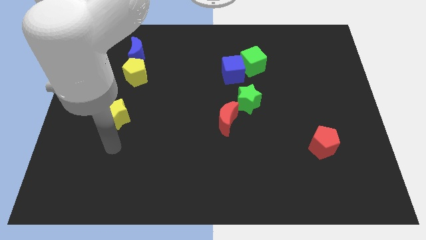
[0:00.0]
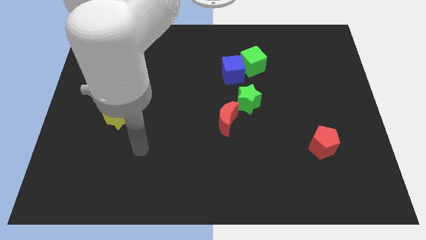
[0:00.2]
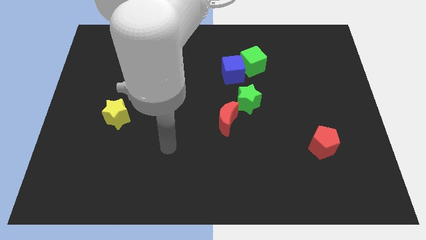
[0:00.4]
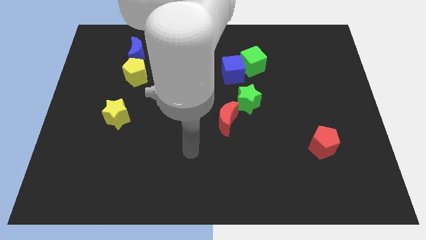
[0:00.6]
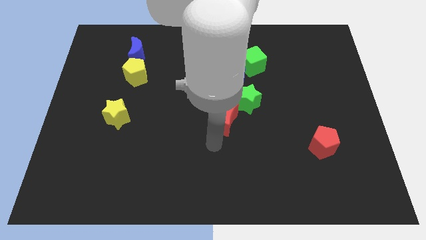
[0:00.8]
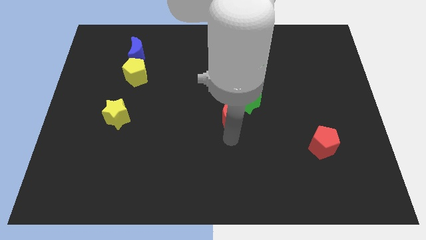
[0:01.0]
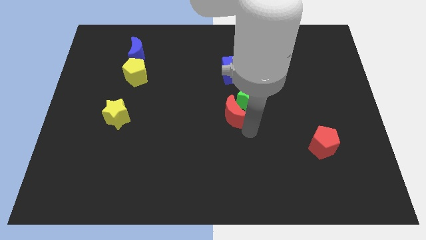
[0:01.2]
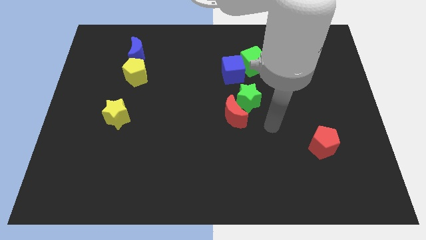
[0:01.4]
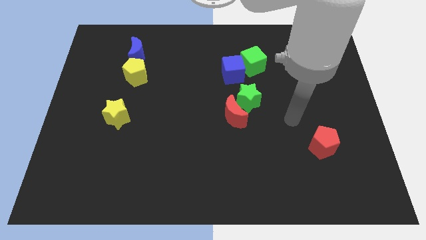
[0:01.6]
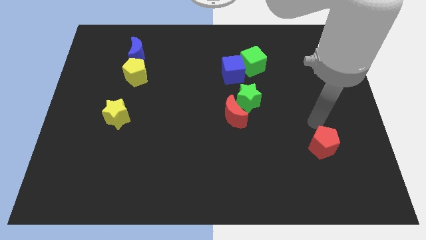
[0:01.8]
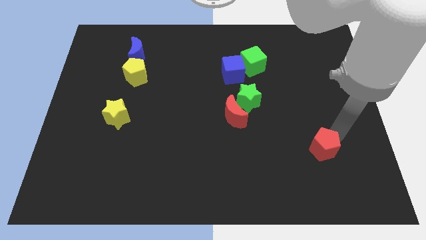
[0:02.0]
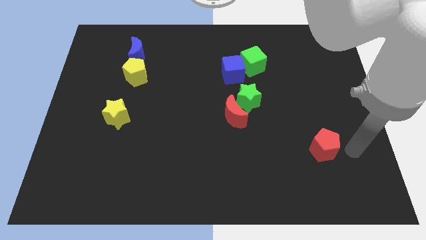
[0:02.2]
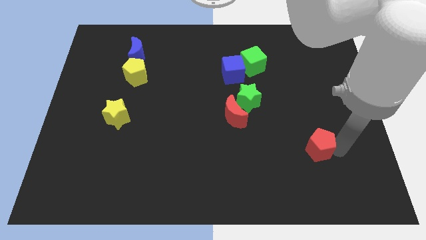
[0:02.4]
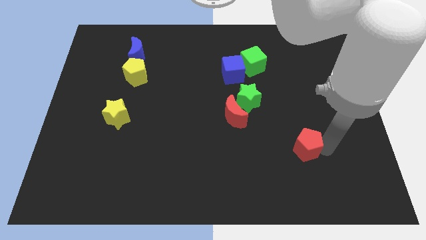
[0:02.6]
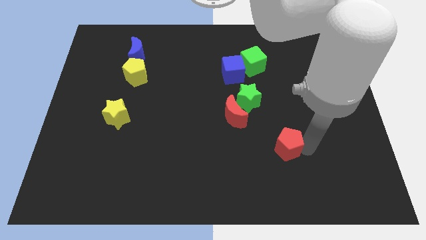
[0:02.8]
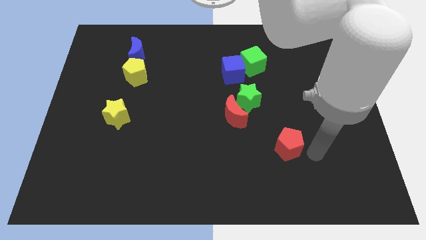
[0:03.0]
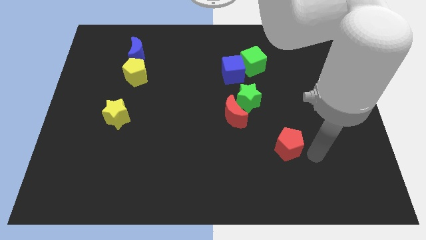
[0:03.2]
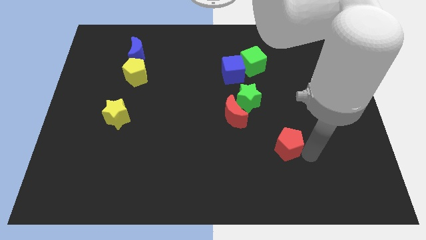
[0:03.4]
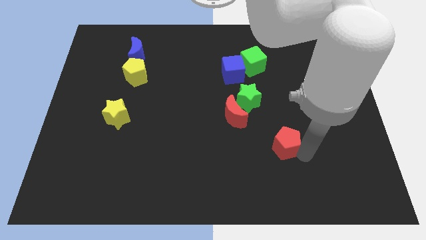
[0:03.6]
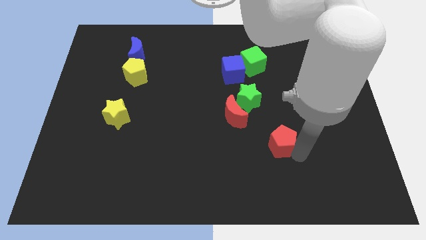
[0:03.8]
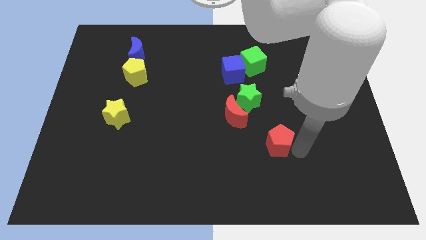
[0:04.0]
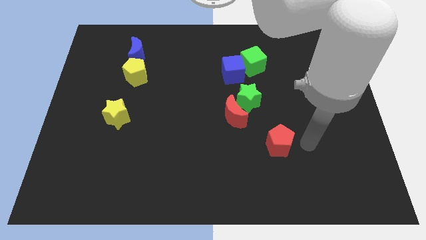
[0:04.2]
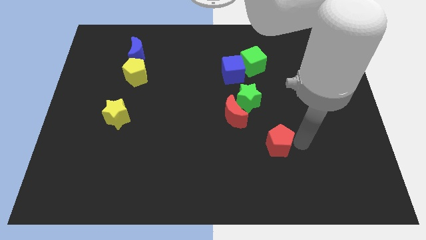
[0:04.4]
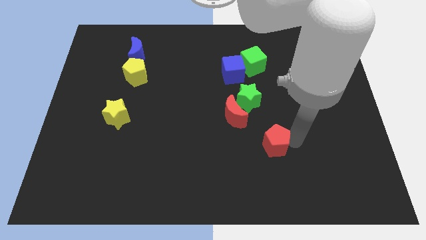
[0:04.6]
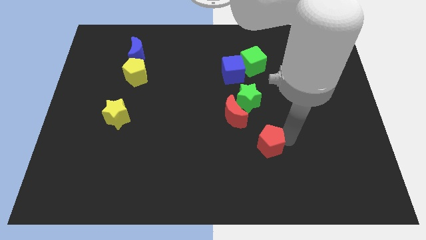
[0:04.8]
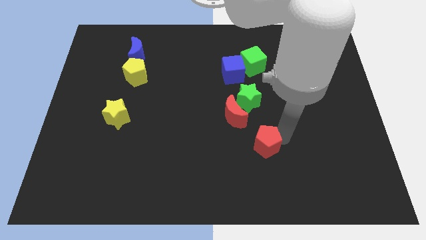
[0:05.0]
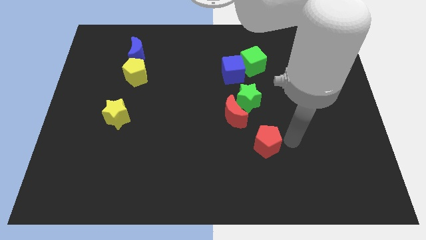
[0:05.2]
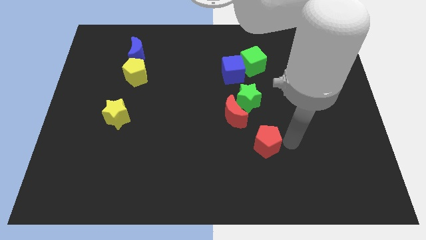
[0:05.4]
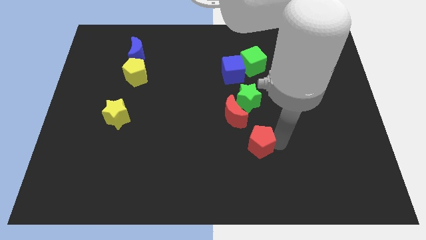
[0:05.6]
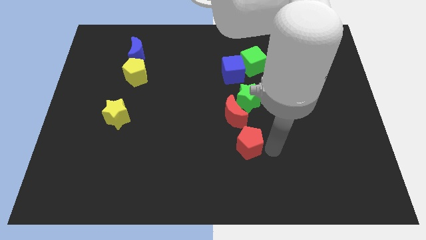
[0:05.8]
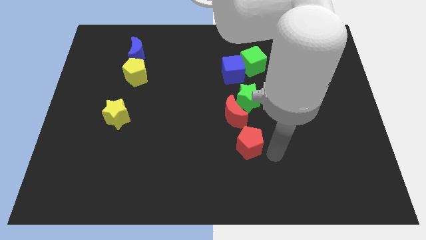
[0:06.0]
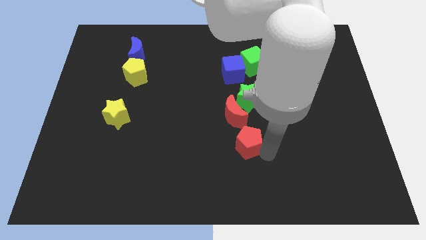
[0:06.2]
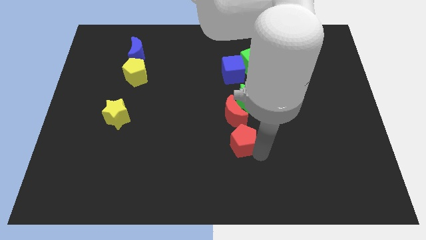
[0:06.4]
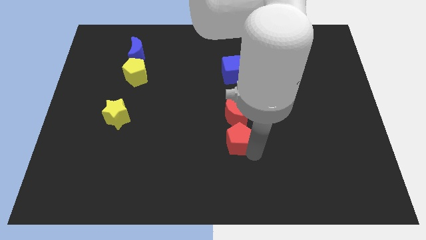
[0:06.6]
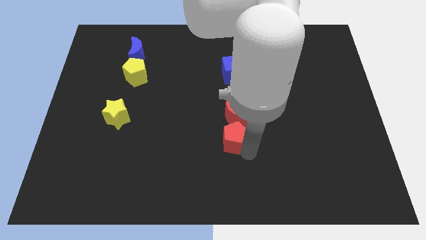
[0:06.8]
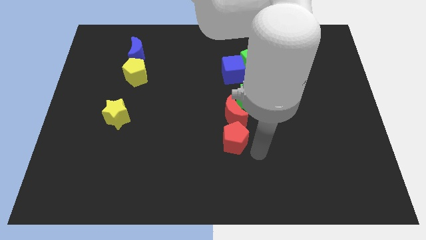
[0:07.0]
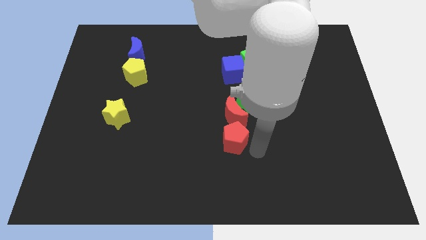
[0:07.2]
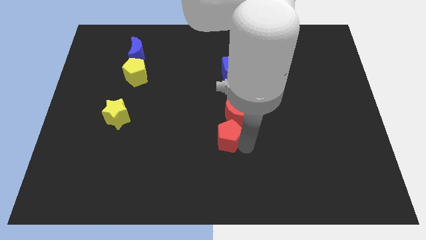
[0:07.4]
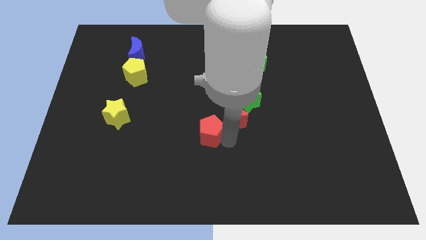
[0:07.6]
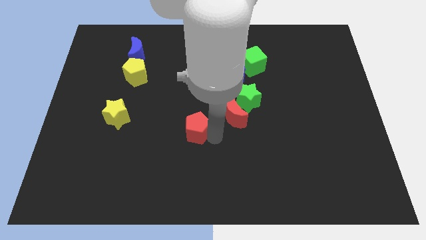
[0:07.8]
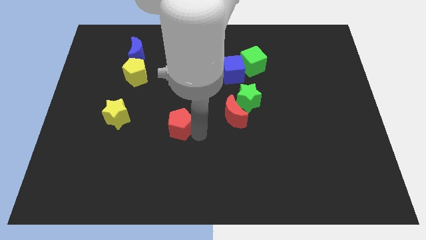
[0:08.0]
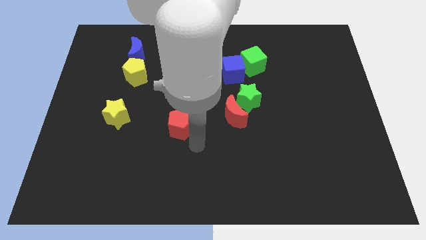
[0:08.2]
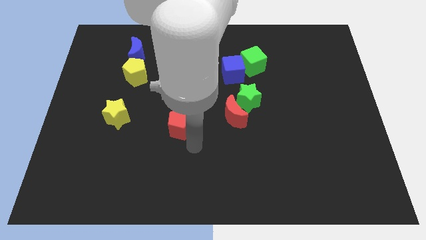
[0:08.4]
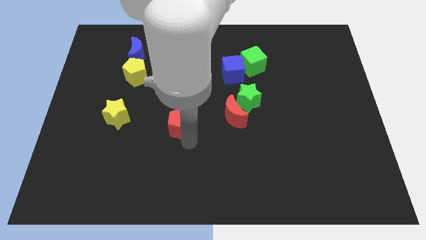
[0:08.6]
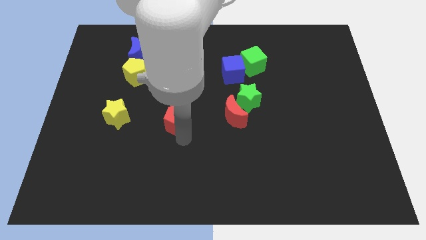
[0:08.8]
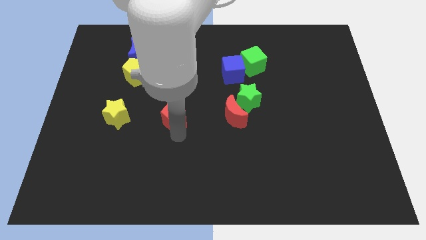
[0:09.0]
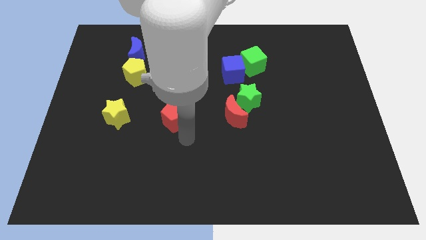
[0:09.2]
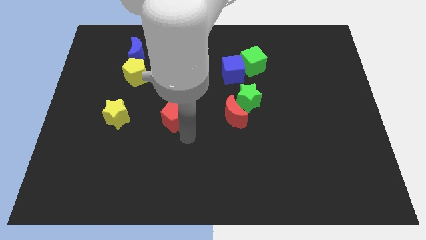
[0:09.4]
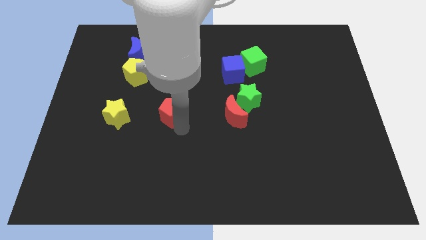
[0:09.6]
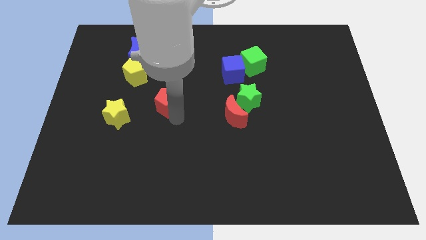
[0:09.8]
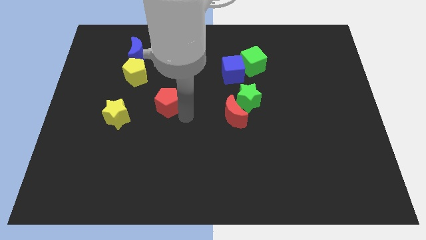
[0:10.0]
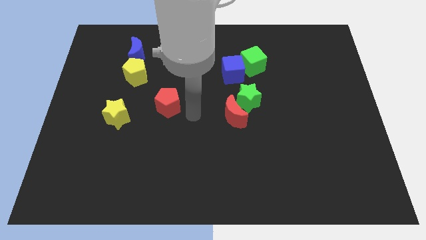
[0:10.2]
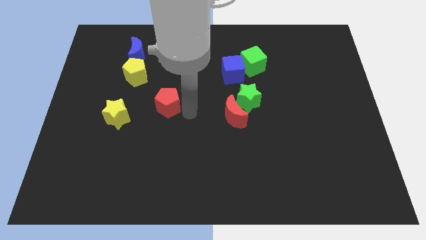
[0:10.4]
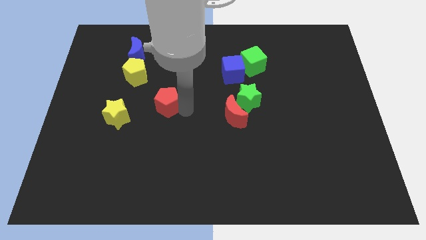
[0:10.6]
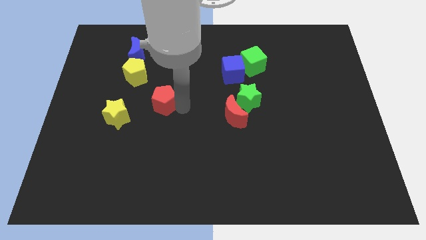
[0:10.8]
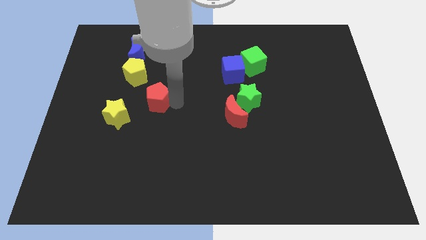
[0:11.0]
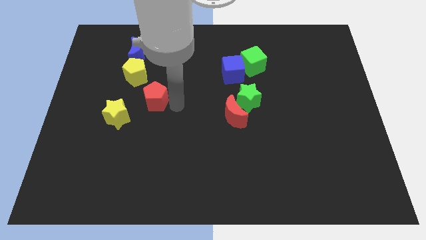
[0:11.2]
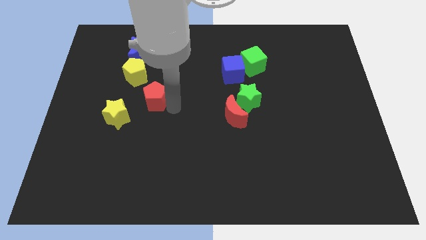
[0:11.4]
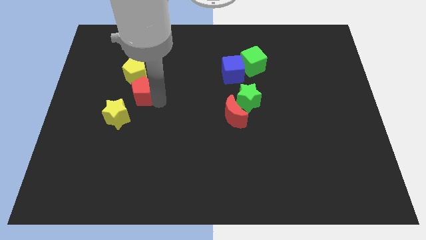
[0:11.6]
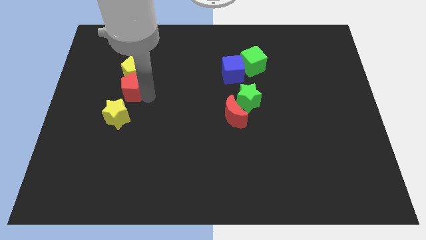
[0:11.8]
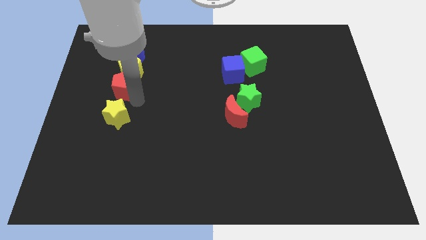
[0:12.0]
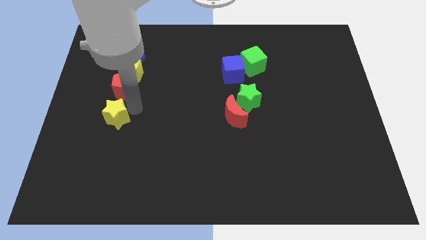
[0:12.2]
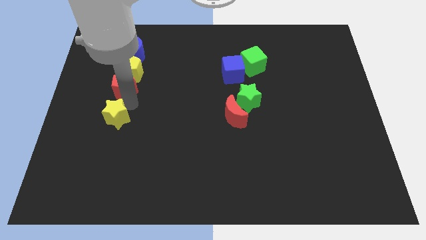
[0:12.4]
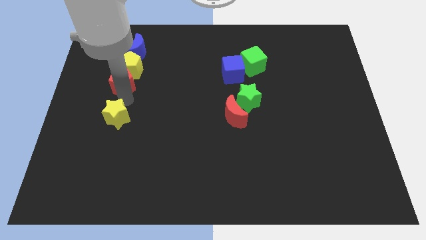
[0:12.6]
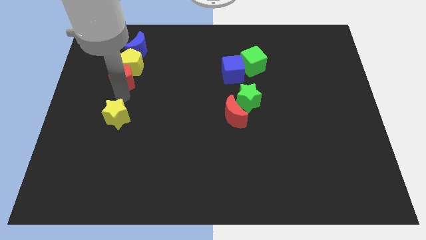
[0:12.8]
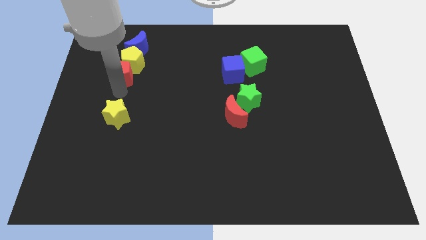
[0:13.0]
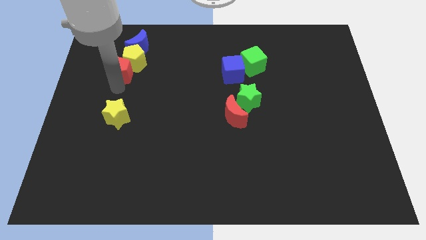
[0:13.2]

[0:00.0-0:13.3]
put the red pentagon to the bottom left side of the blue moon
